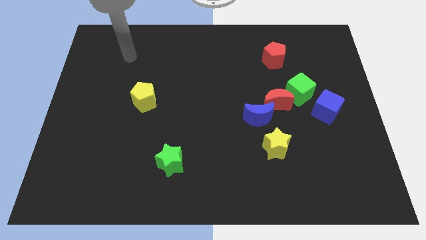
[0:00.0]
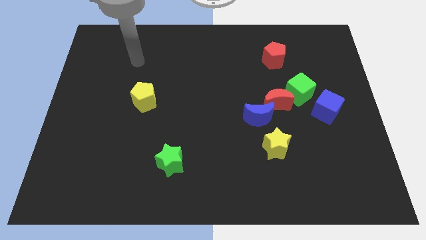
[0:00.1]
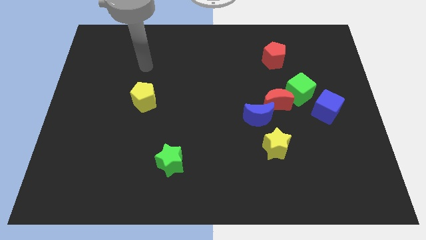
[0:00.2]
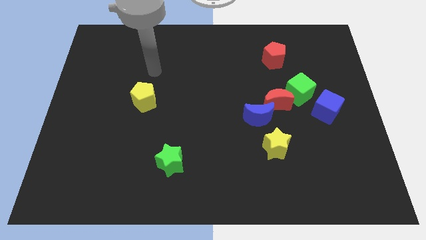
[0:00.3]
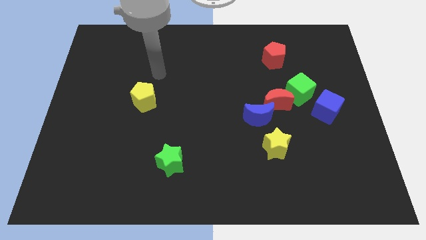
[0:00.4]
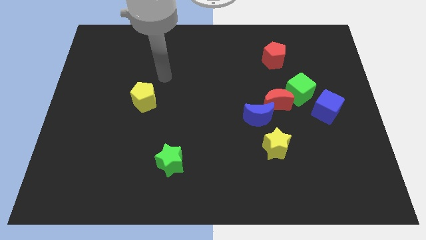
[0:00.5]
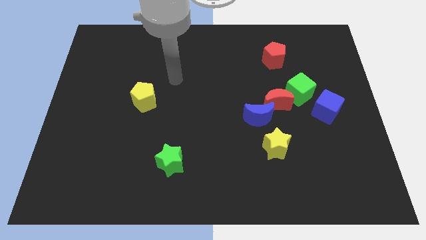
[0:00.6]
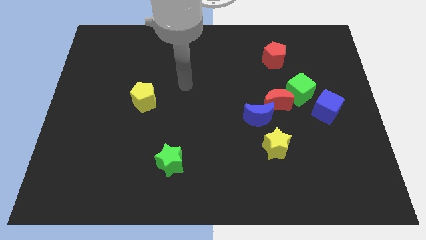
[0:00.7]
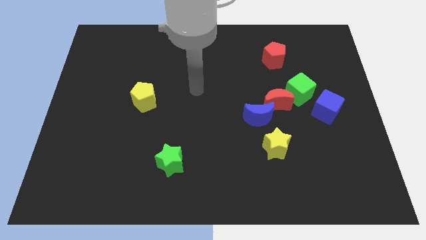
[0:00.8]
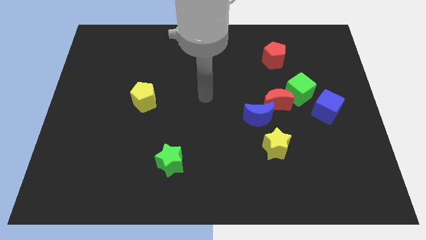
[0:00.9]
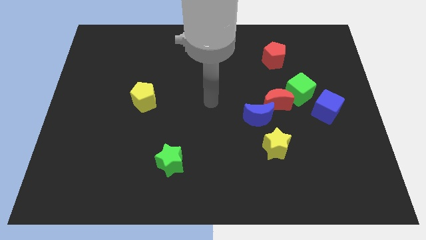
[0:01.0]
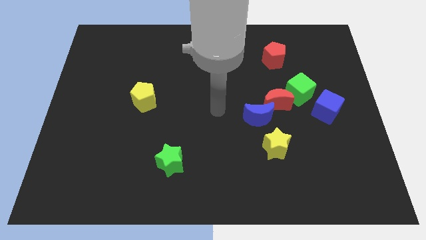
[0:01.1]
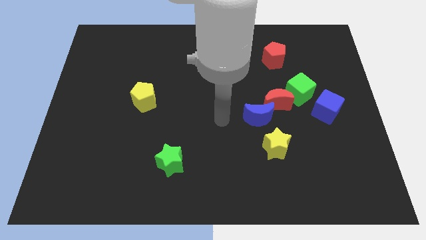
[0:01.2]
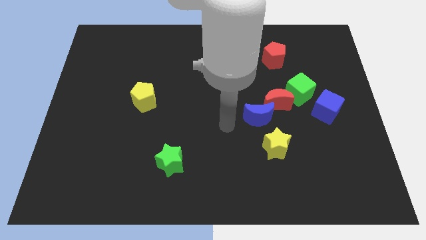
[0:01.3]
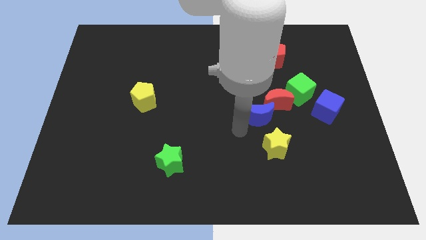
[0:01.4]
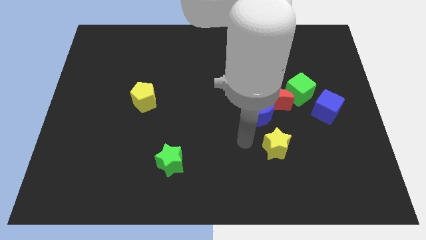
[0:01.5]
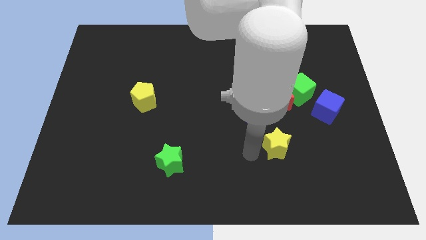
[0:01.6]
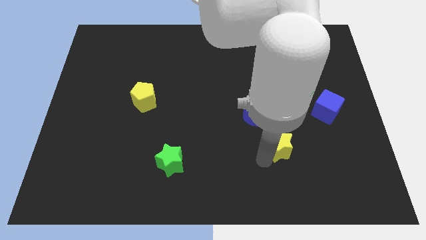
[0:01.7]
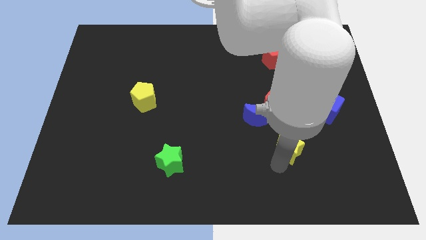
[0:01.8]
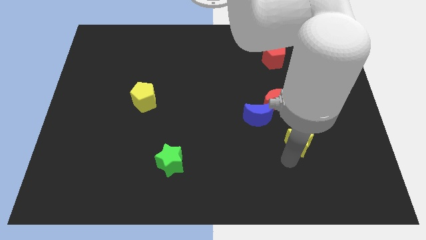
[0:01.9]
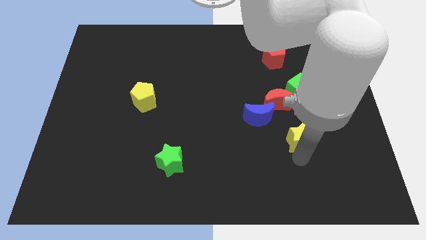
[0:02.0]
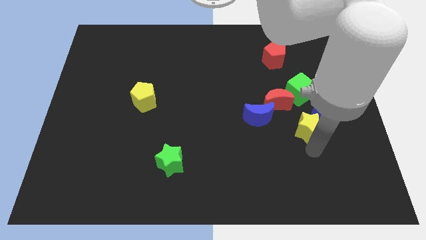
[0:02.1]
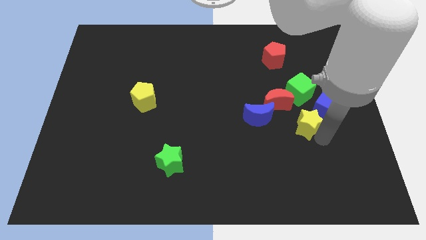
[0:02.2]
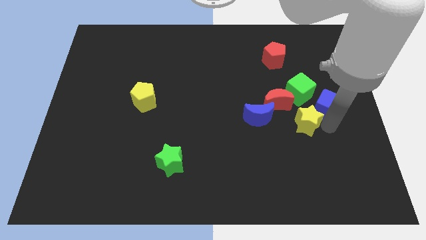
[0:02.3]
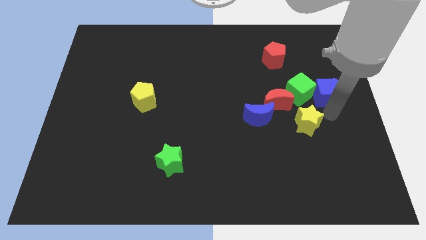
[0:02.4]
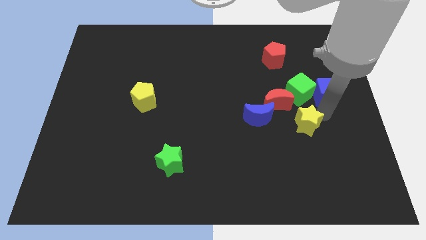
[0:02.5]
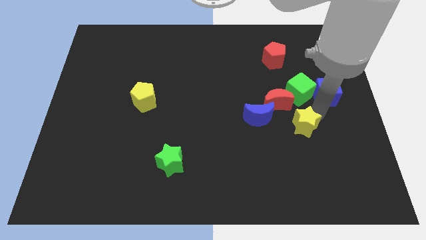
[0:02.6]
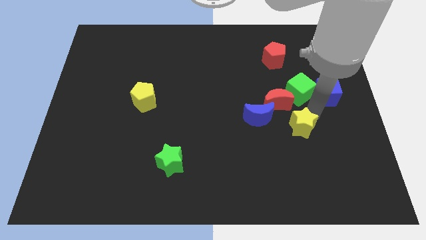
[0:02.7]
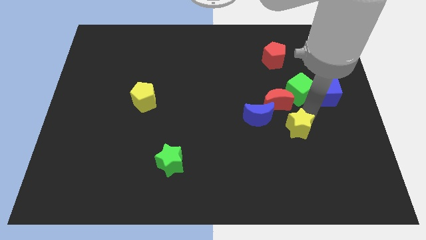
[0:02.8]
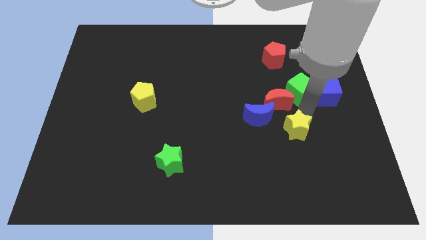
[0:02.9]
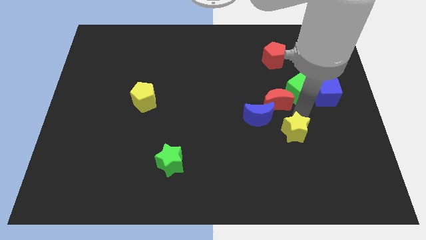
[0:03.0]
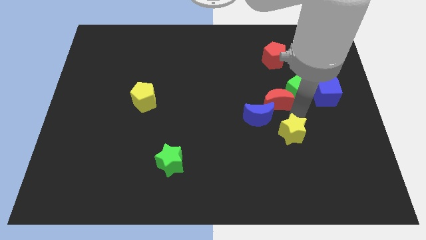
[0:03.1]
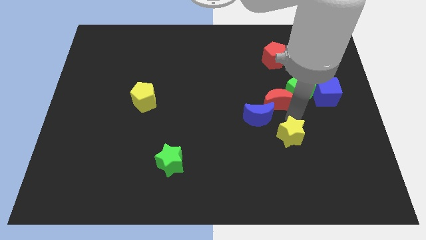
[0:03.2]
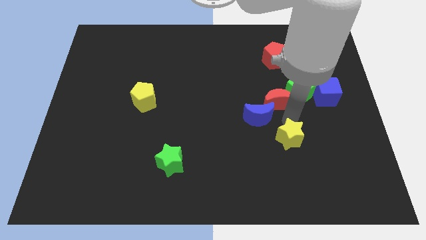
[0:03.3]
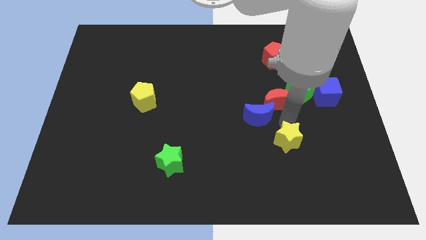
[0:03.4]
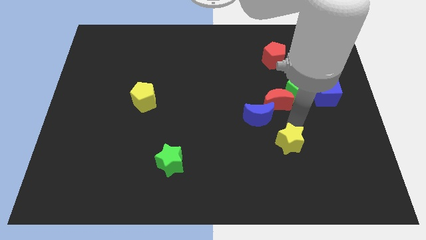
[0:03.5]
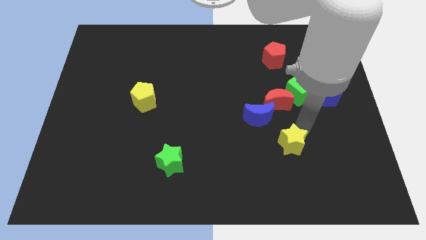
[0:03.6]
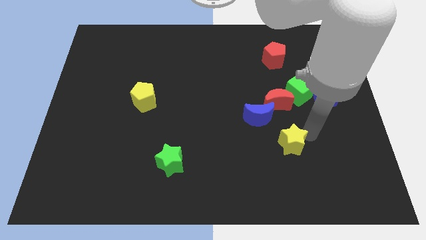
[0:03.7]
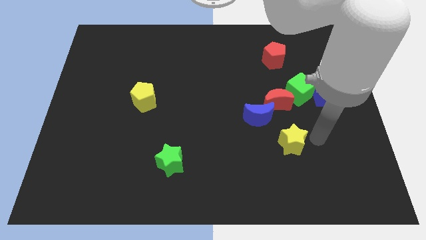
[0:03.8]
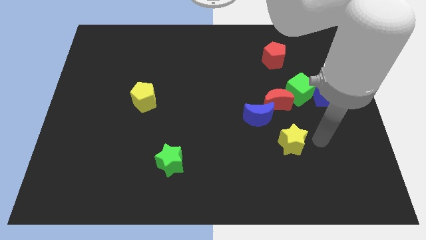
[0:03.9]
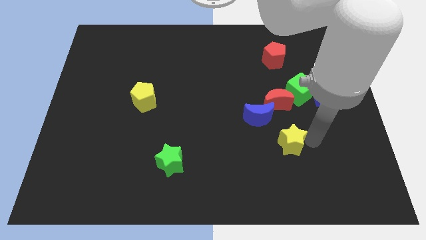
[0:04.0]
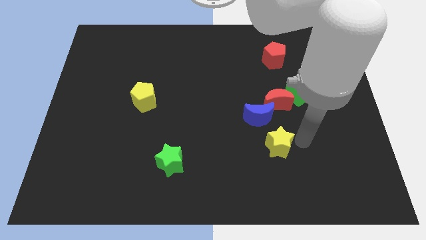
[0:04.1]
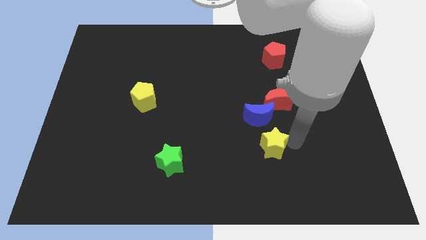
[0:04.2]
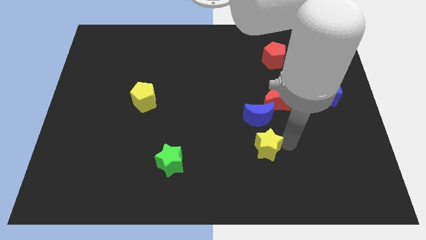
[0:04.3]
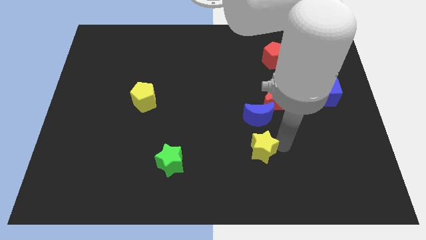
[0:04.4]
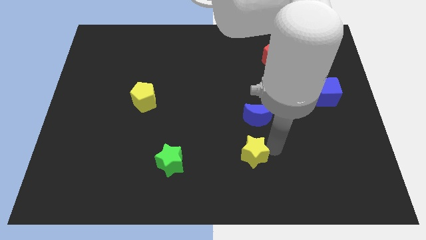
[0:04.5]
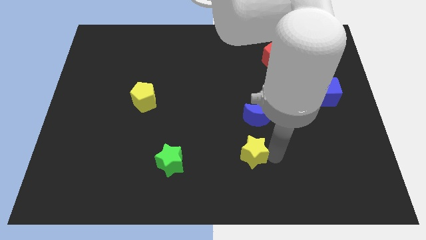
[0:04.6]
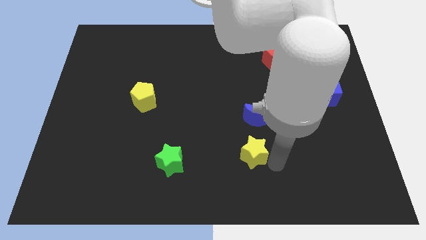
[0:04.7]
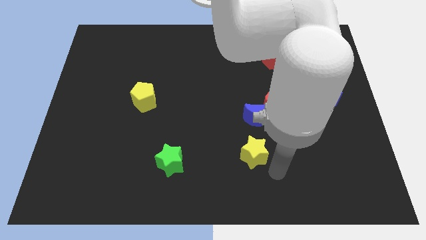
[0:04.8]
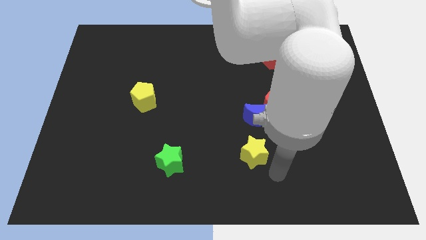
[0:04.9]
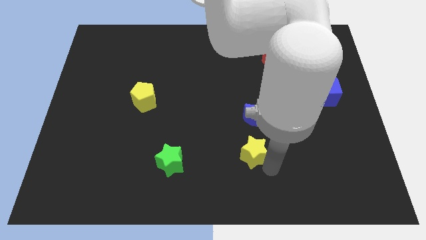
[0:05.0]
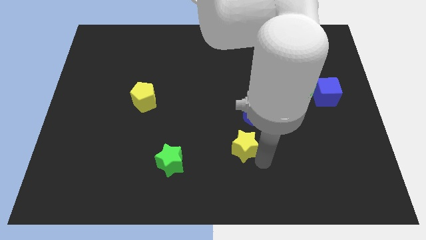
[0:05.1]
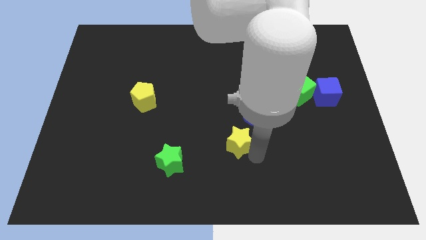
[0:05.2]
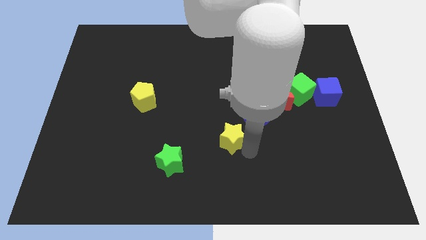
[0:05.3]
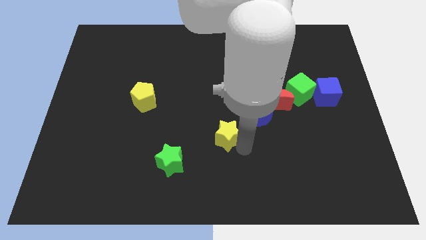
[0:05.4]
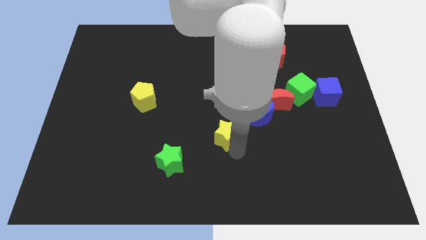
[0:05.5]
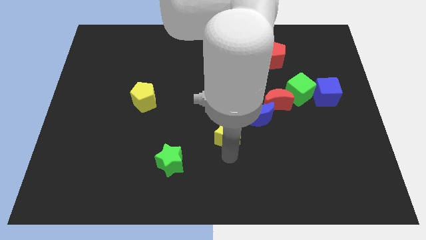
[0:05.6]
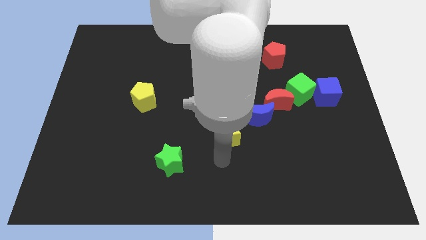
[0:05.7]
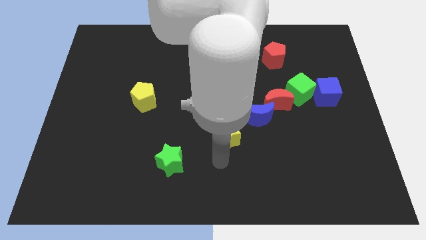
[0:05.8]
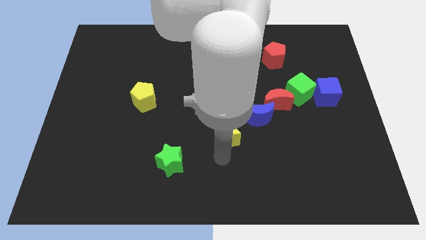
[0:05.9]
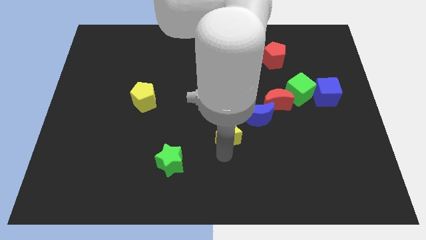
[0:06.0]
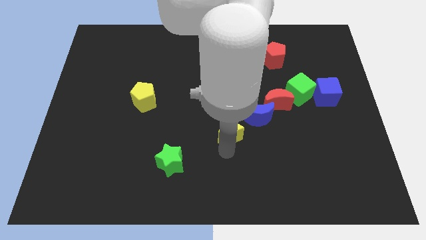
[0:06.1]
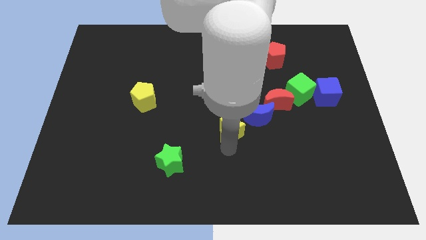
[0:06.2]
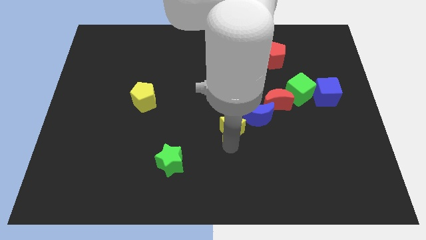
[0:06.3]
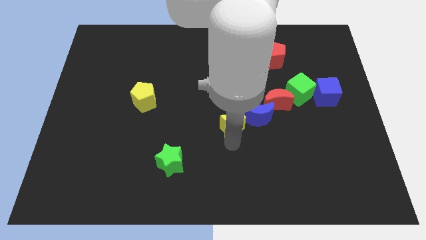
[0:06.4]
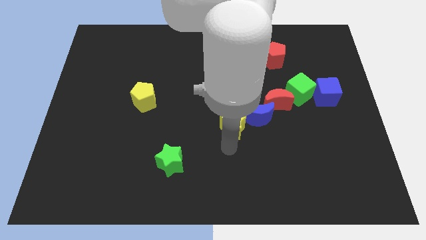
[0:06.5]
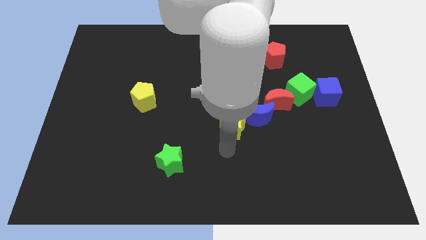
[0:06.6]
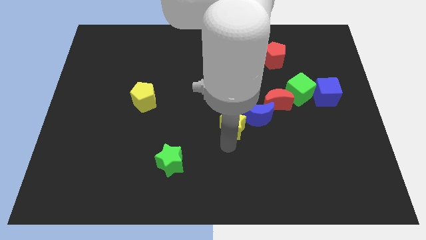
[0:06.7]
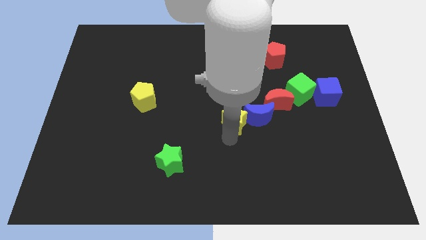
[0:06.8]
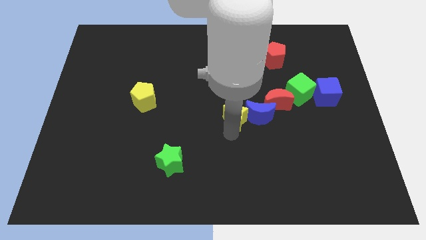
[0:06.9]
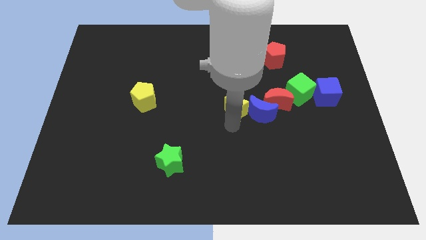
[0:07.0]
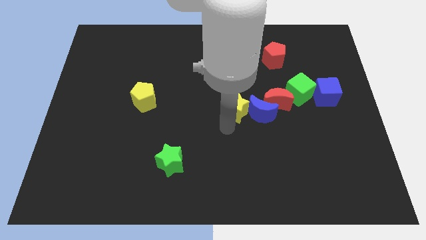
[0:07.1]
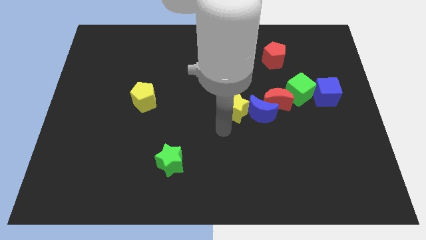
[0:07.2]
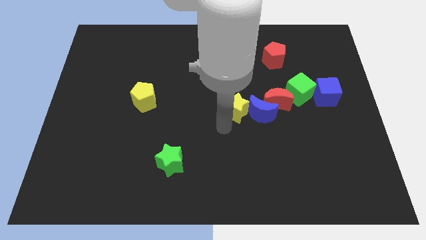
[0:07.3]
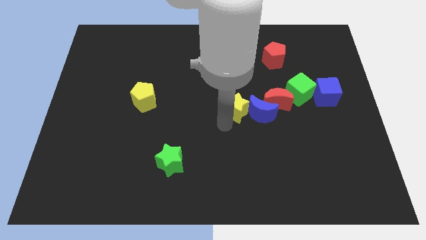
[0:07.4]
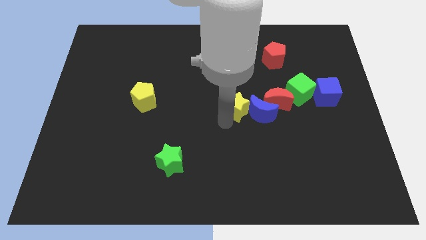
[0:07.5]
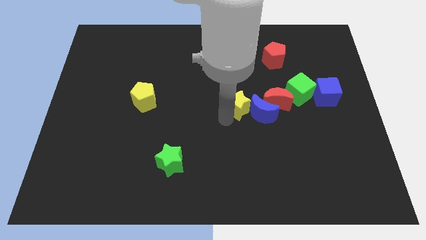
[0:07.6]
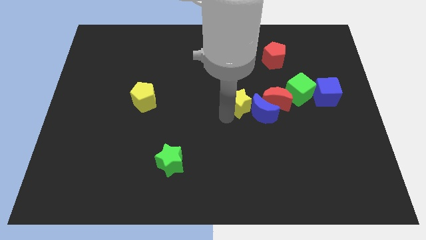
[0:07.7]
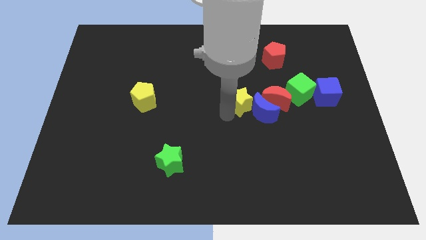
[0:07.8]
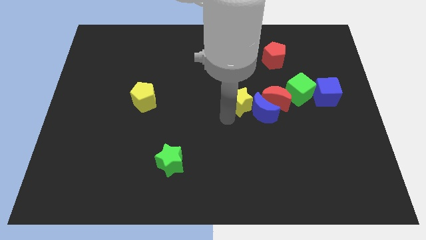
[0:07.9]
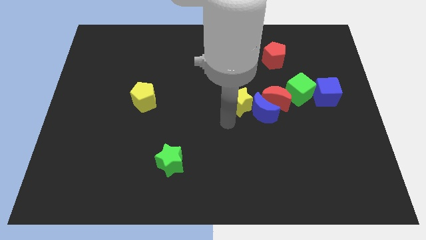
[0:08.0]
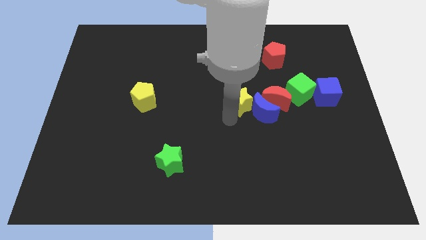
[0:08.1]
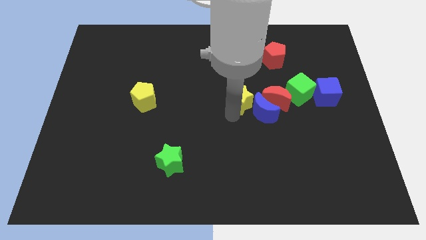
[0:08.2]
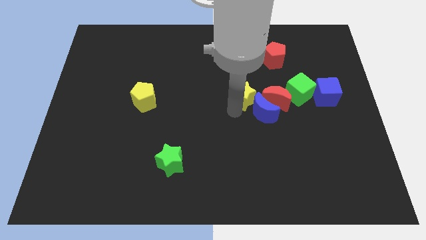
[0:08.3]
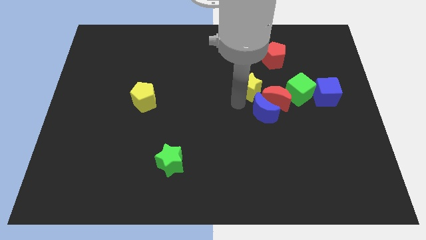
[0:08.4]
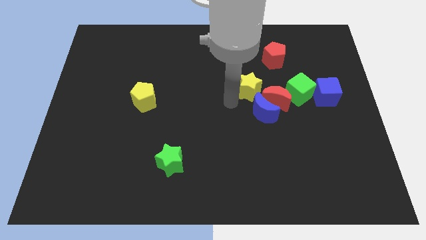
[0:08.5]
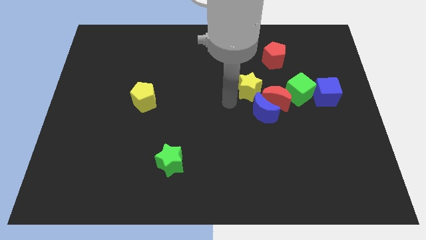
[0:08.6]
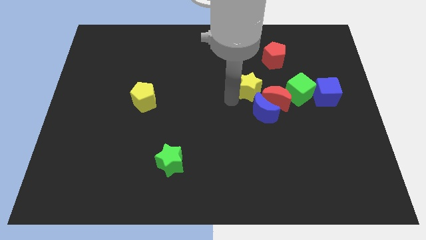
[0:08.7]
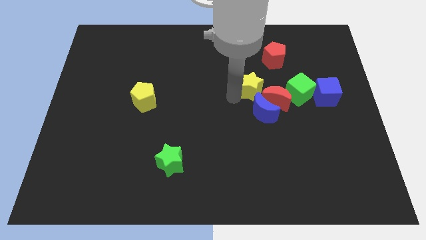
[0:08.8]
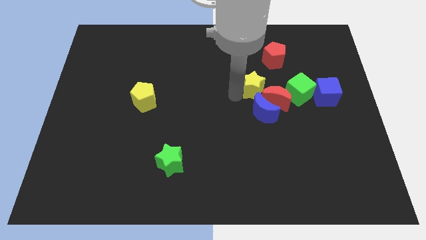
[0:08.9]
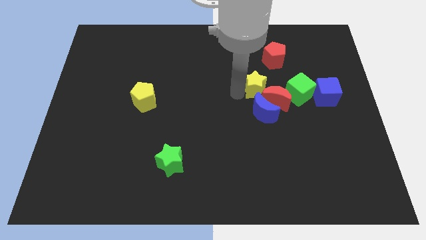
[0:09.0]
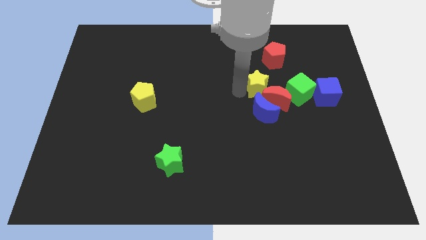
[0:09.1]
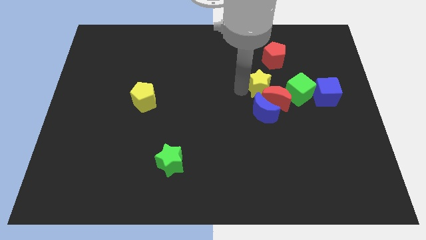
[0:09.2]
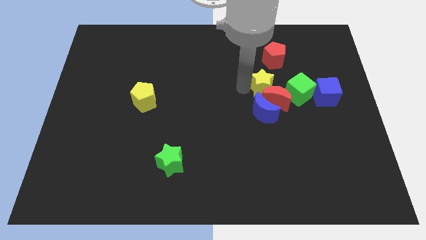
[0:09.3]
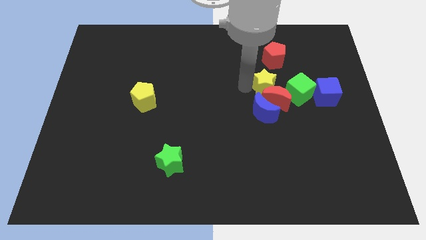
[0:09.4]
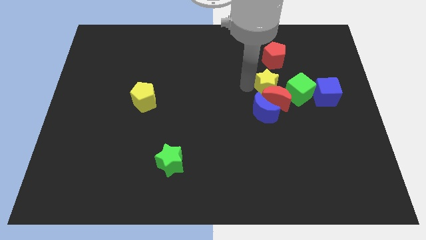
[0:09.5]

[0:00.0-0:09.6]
push the yellow star to the top right side of the red moon
